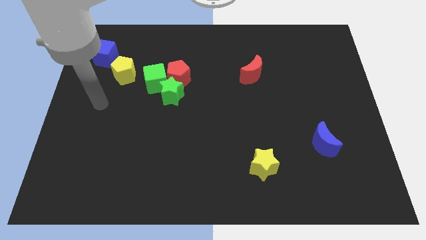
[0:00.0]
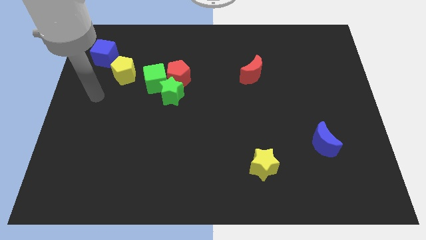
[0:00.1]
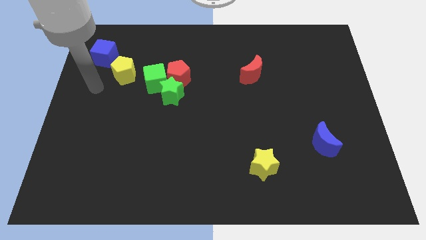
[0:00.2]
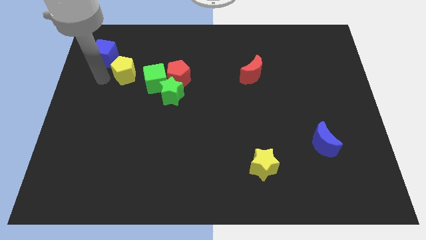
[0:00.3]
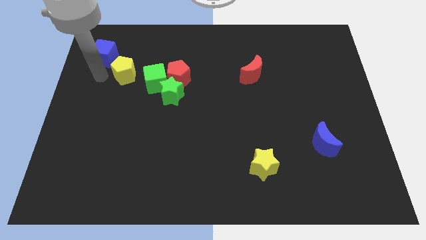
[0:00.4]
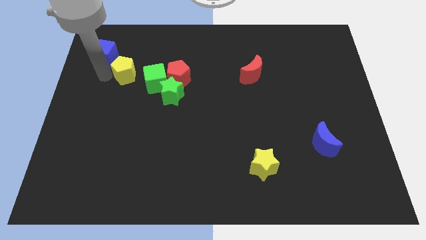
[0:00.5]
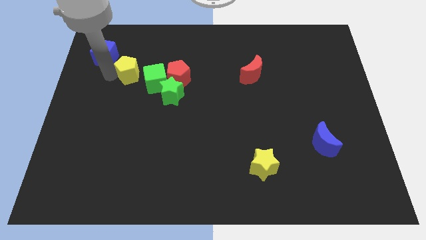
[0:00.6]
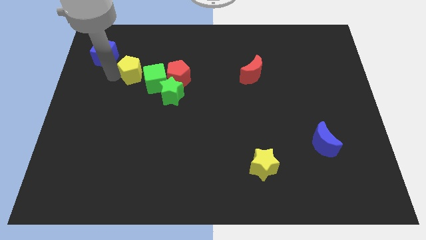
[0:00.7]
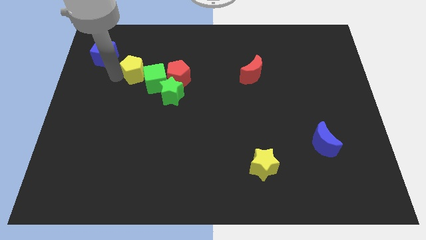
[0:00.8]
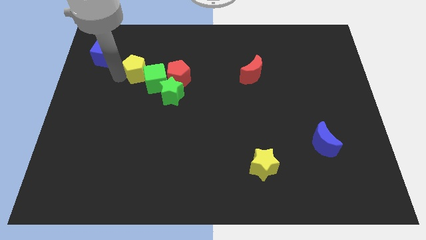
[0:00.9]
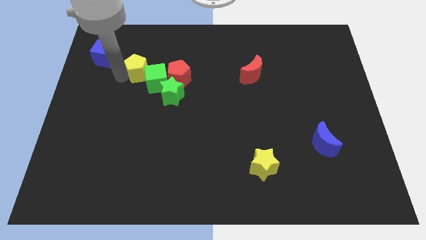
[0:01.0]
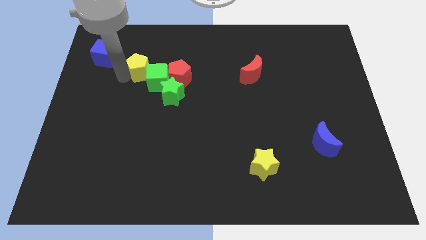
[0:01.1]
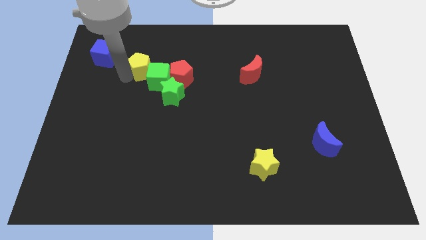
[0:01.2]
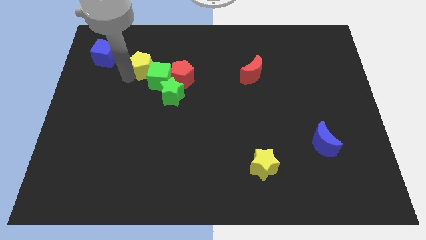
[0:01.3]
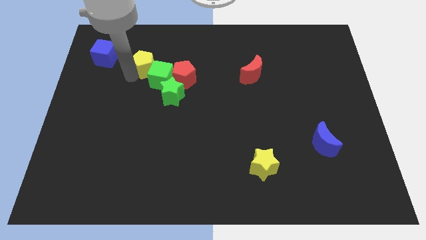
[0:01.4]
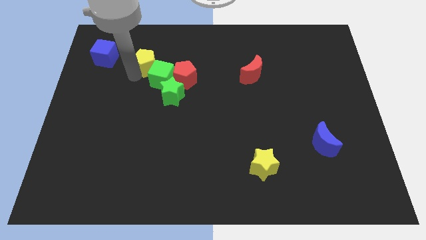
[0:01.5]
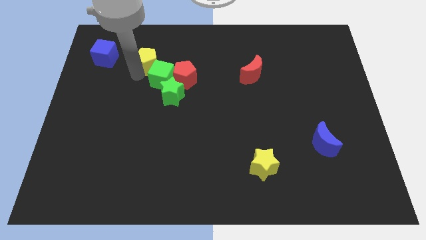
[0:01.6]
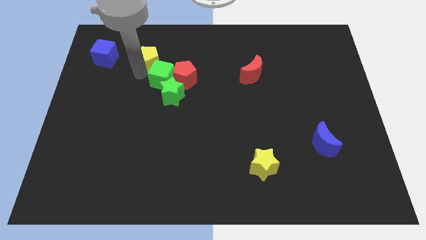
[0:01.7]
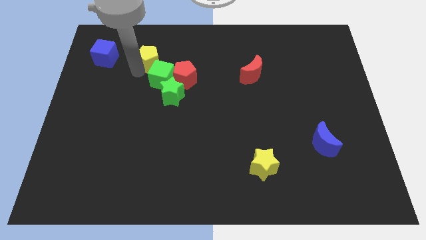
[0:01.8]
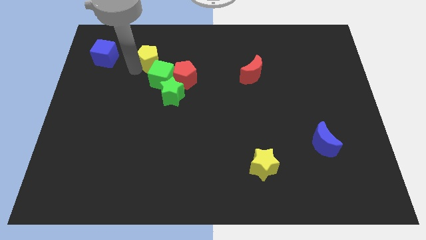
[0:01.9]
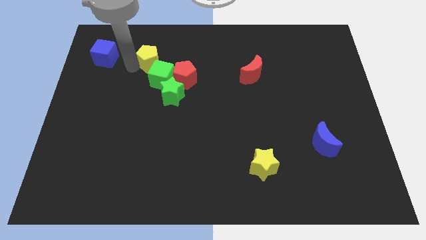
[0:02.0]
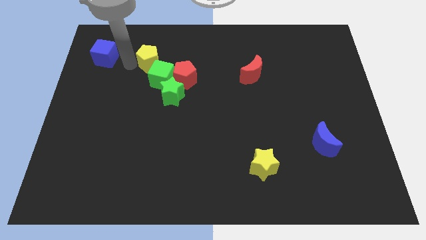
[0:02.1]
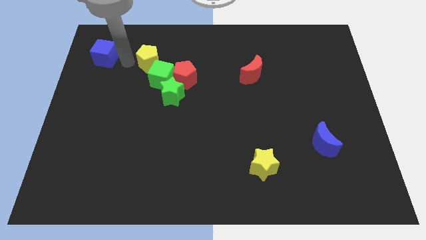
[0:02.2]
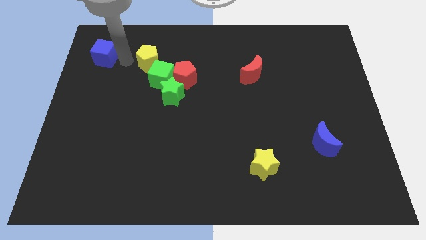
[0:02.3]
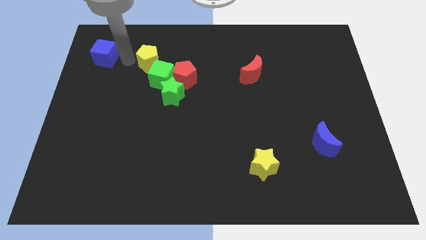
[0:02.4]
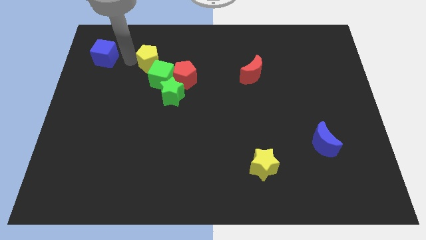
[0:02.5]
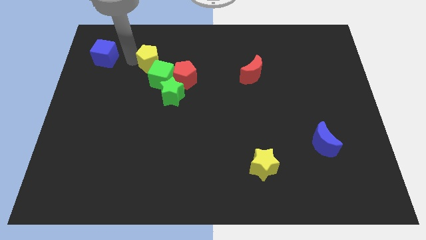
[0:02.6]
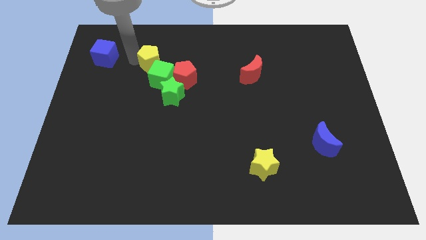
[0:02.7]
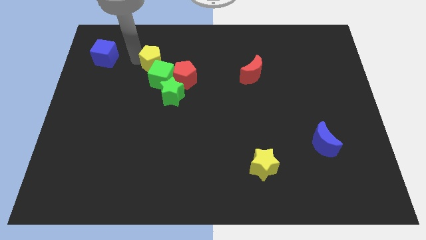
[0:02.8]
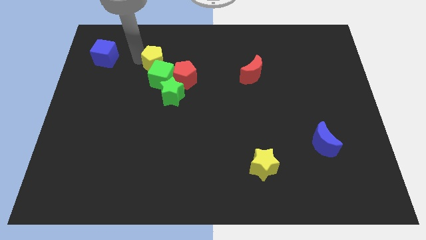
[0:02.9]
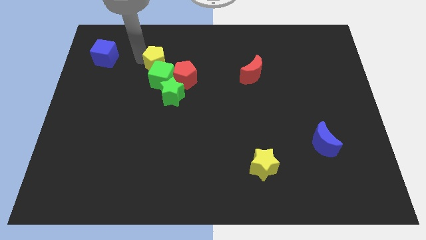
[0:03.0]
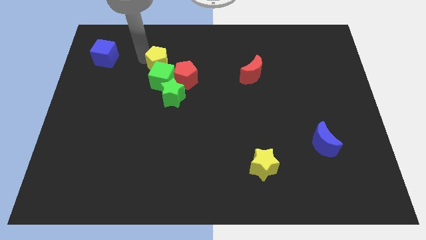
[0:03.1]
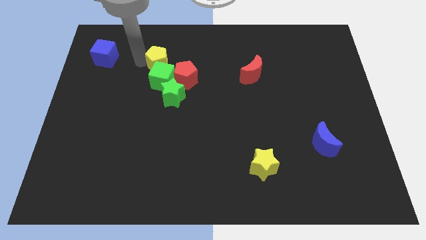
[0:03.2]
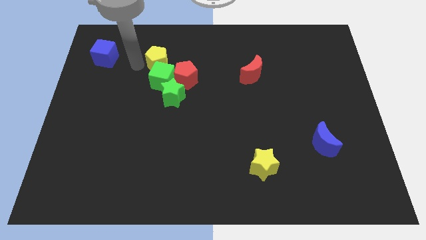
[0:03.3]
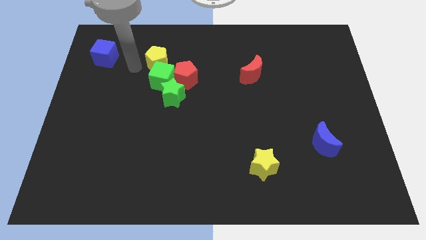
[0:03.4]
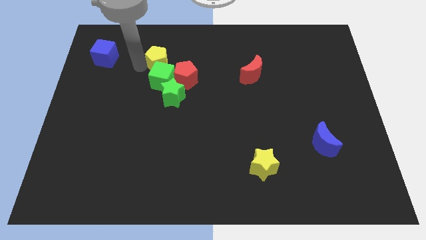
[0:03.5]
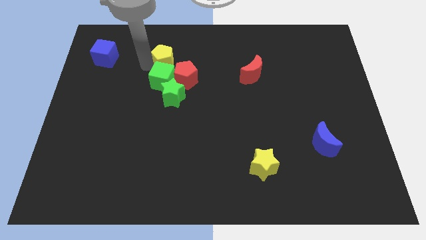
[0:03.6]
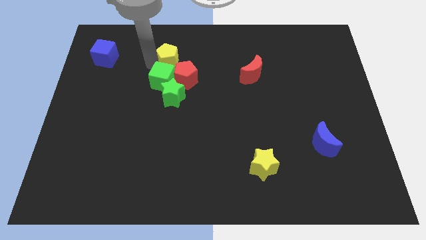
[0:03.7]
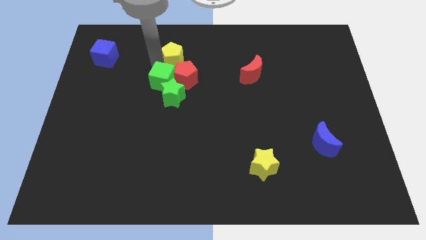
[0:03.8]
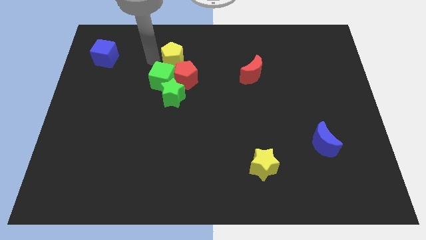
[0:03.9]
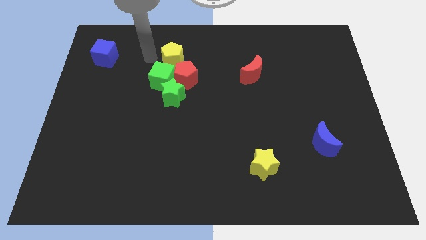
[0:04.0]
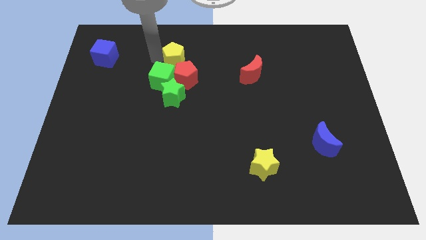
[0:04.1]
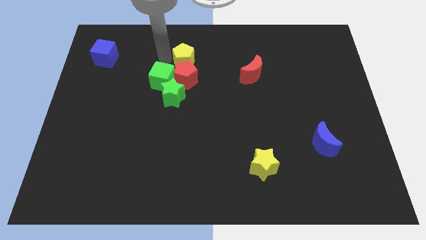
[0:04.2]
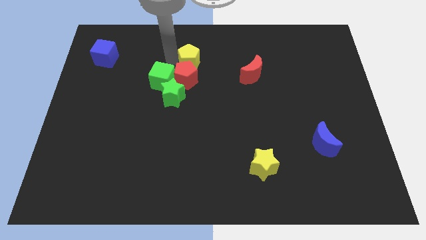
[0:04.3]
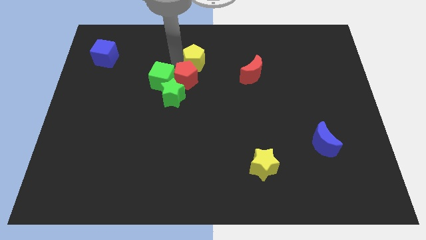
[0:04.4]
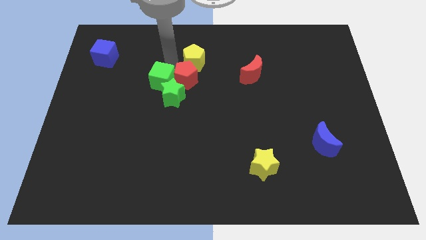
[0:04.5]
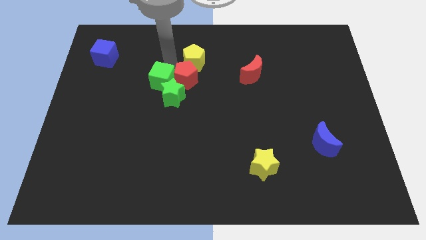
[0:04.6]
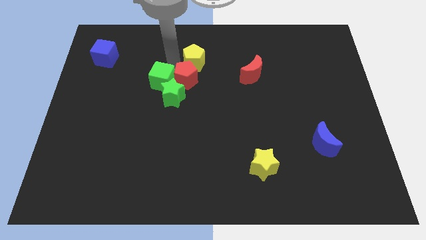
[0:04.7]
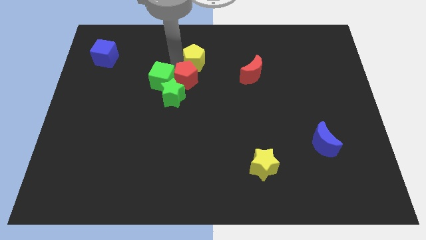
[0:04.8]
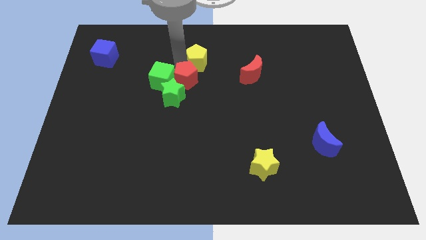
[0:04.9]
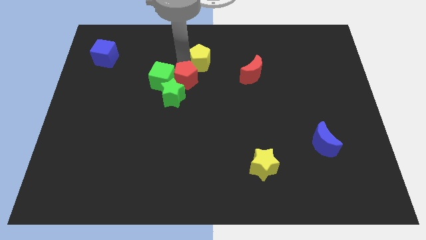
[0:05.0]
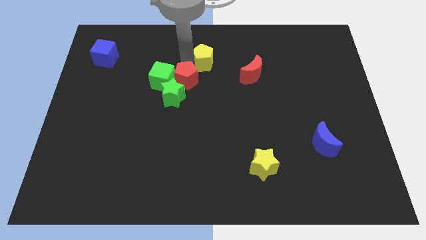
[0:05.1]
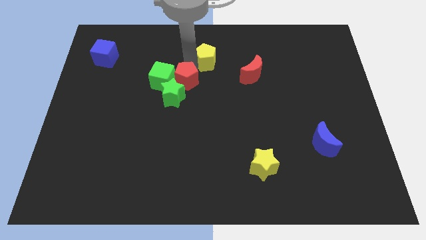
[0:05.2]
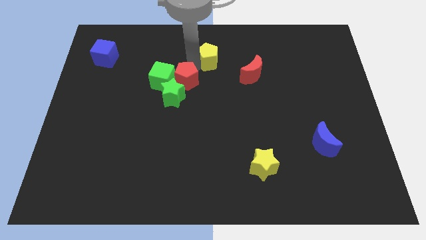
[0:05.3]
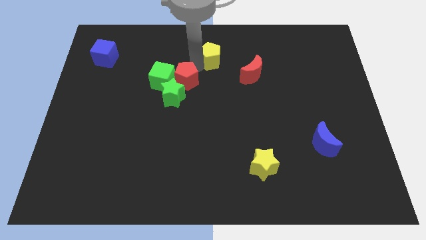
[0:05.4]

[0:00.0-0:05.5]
put the yellow pentagon to the top left side of the red moon

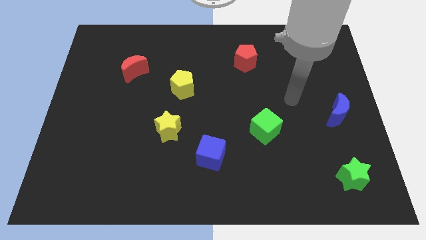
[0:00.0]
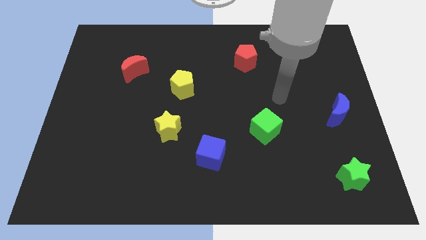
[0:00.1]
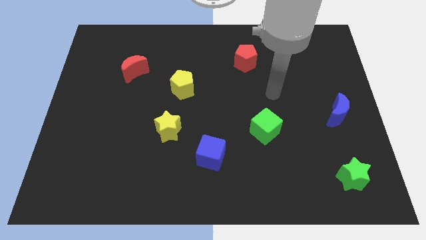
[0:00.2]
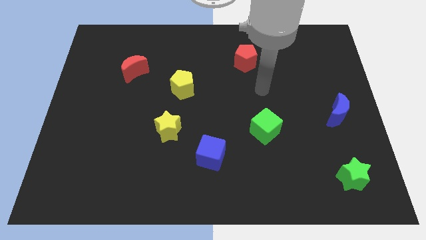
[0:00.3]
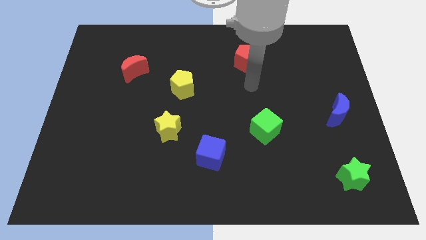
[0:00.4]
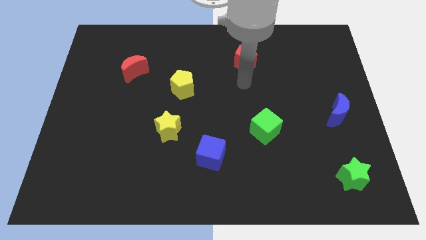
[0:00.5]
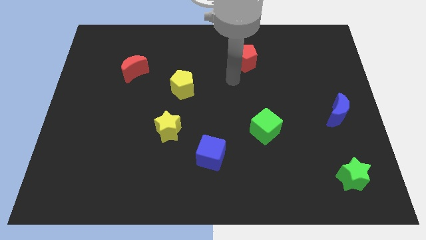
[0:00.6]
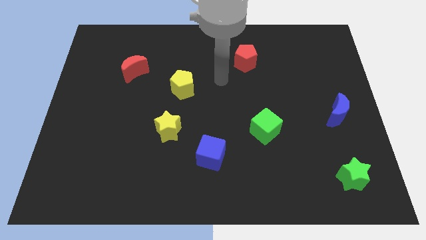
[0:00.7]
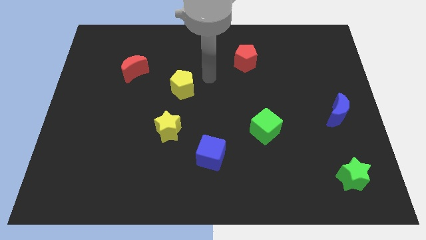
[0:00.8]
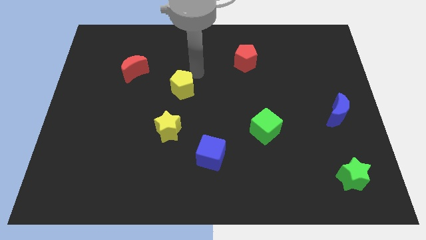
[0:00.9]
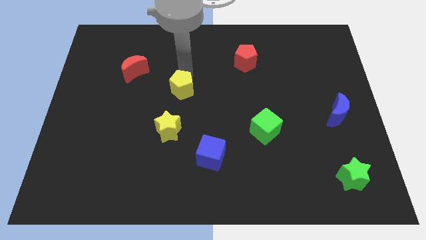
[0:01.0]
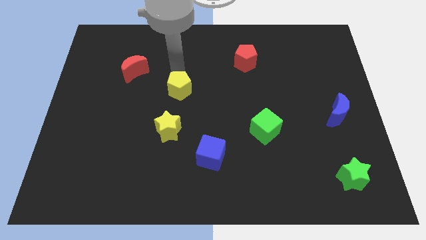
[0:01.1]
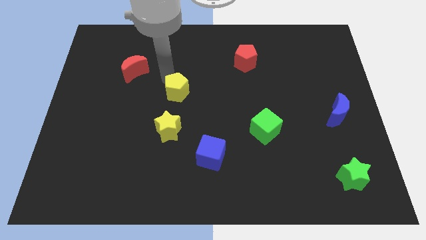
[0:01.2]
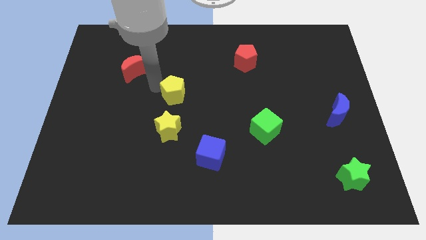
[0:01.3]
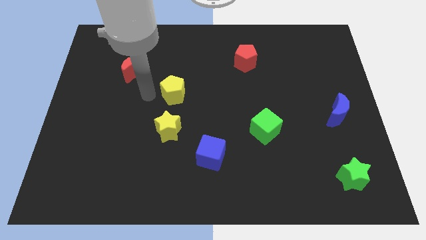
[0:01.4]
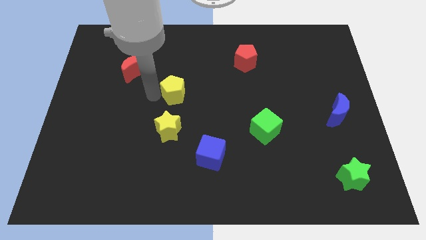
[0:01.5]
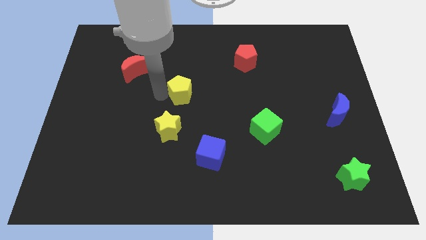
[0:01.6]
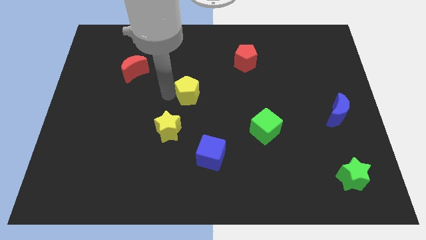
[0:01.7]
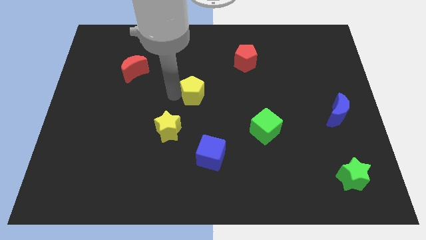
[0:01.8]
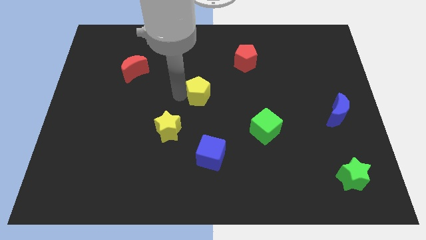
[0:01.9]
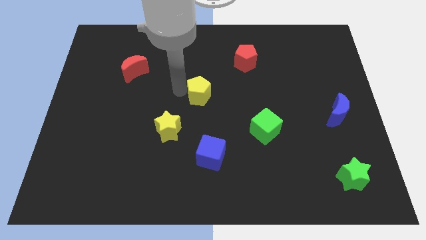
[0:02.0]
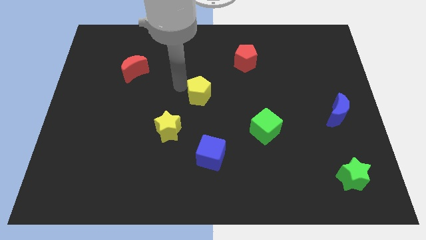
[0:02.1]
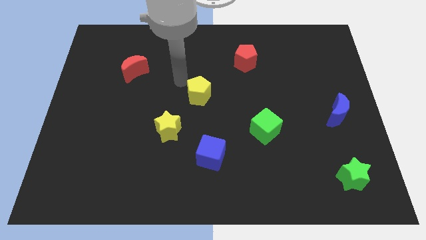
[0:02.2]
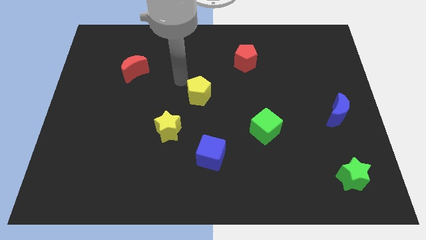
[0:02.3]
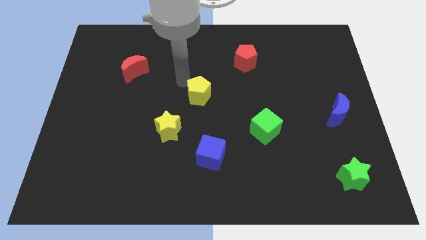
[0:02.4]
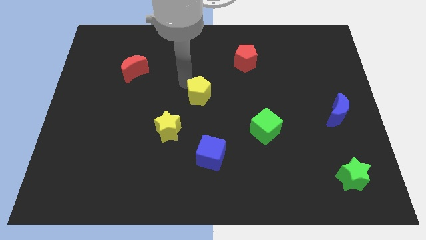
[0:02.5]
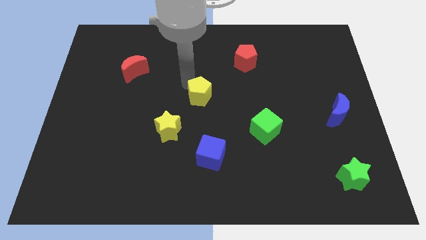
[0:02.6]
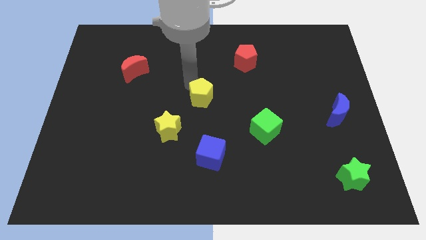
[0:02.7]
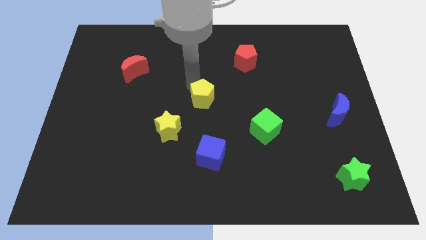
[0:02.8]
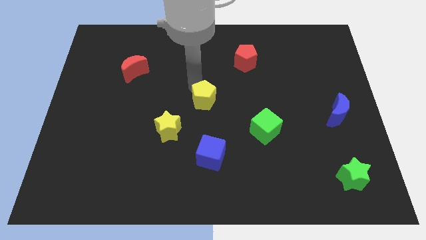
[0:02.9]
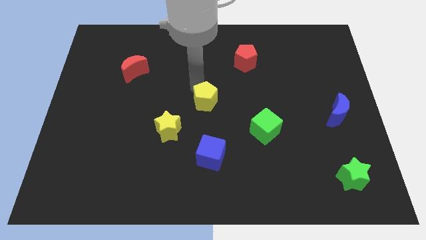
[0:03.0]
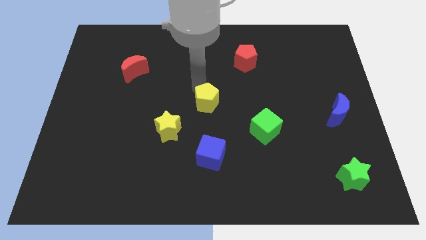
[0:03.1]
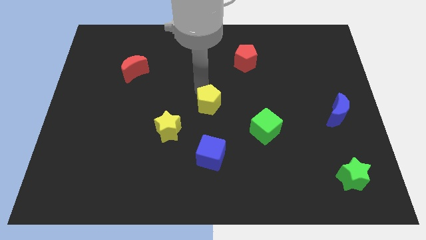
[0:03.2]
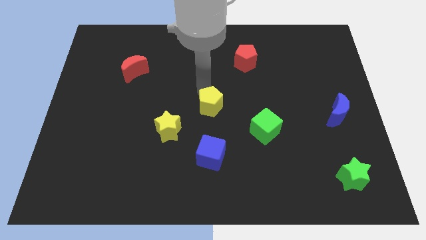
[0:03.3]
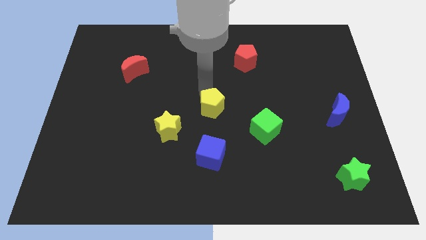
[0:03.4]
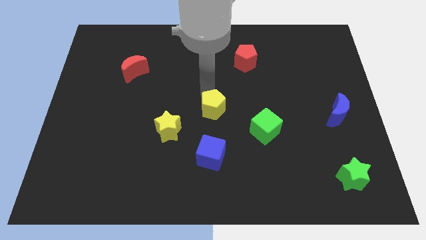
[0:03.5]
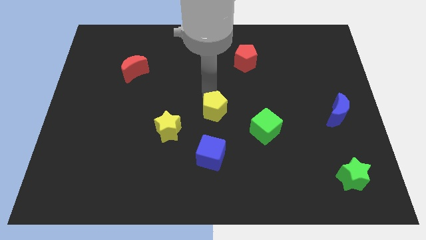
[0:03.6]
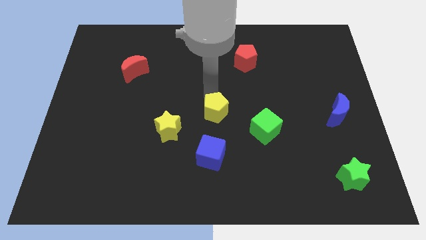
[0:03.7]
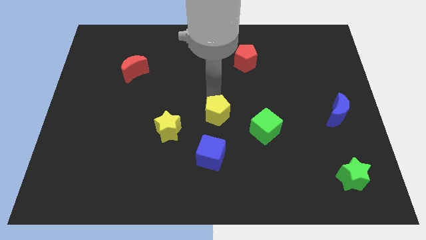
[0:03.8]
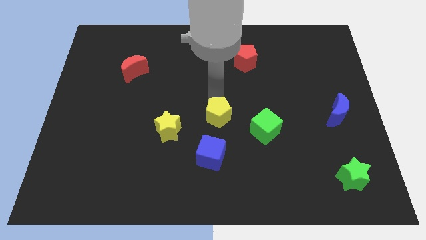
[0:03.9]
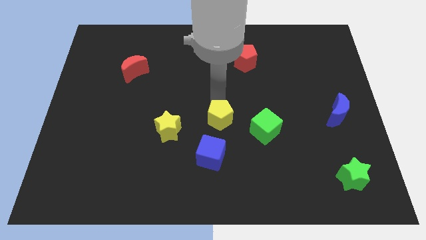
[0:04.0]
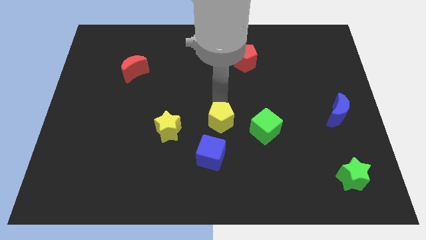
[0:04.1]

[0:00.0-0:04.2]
slide the yellow pentagon to the top right of the blue cube
